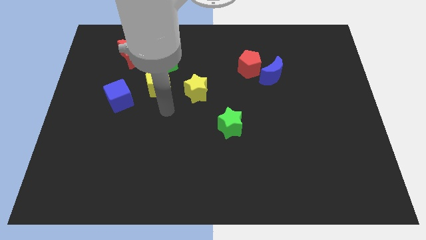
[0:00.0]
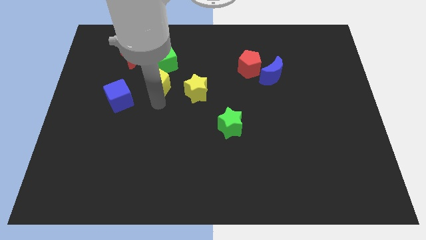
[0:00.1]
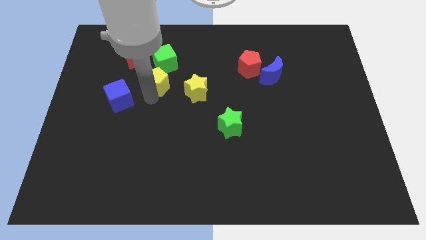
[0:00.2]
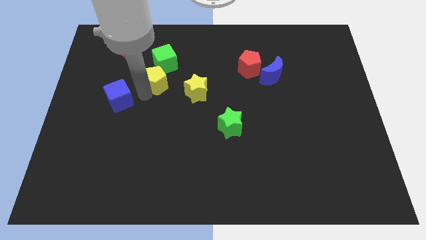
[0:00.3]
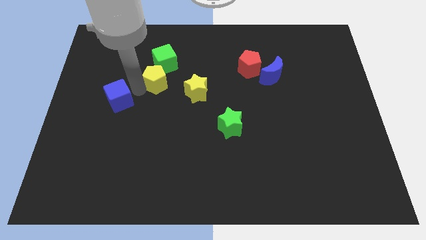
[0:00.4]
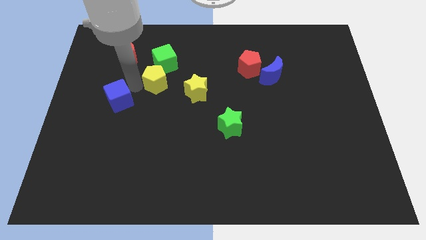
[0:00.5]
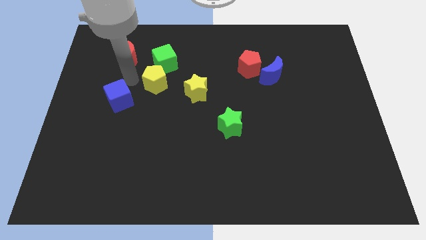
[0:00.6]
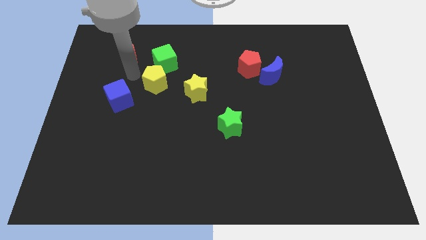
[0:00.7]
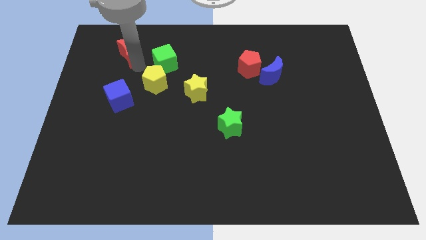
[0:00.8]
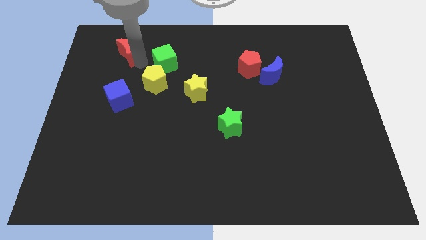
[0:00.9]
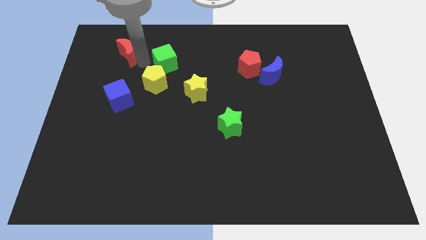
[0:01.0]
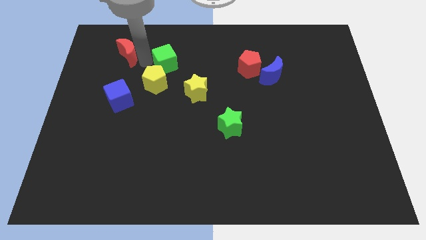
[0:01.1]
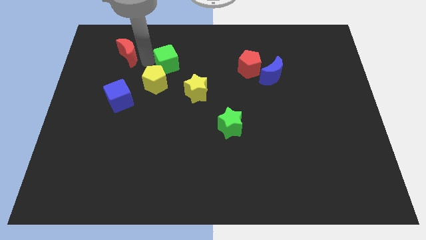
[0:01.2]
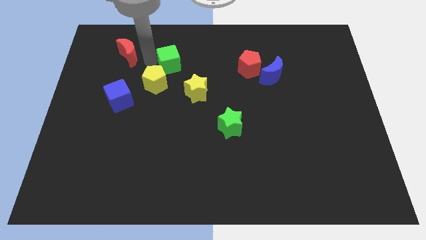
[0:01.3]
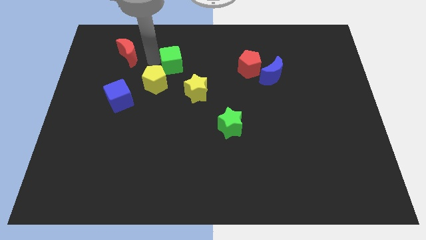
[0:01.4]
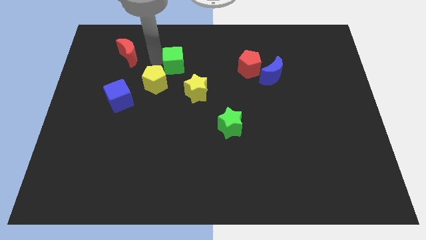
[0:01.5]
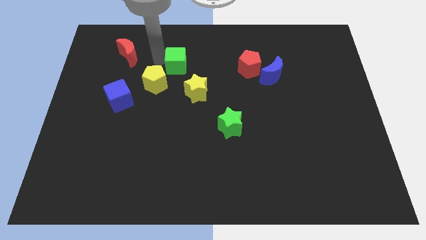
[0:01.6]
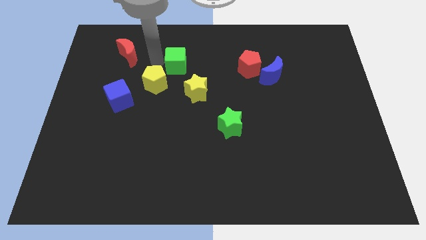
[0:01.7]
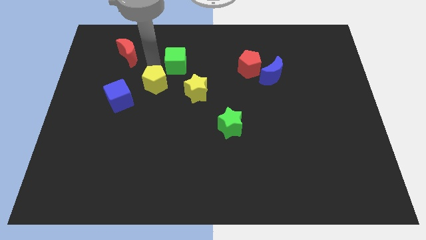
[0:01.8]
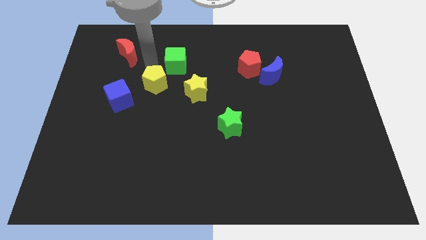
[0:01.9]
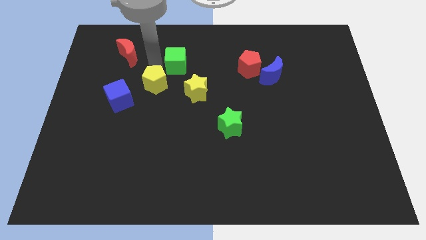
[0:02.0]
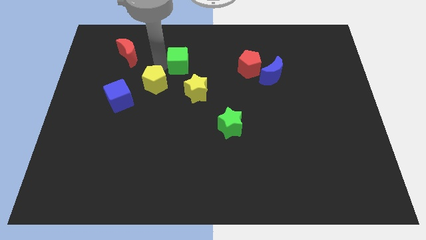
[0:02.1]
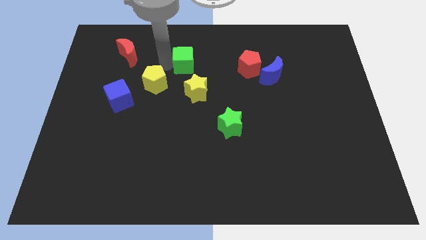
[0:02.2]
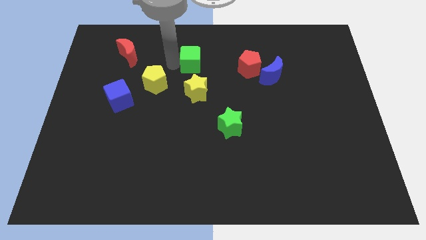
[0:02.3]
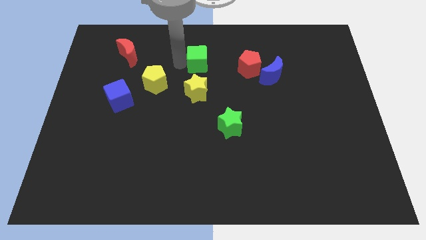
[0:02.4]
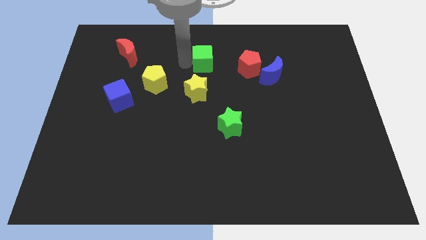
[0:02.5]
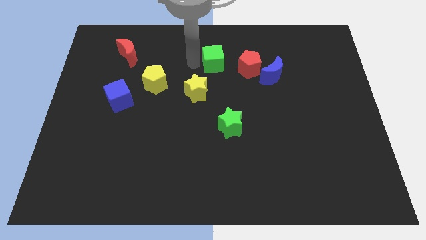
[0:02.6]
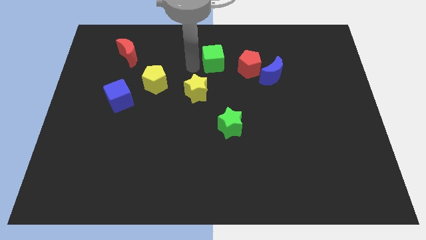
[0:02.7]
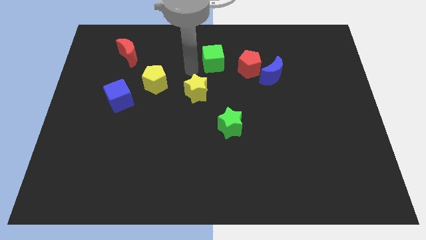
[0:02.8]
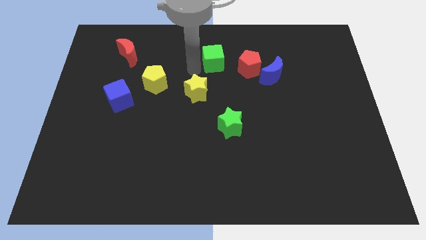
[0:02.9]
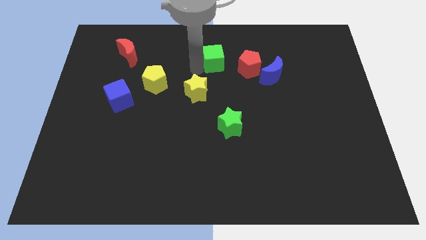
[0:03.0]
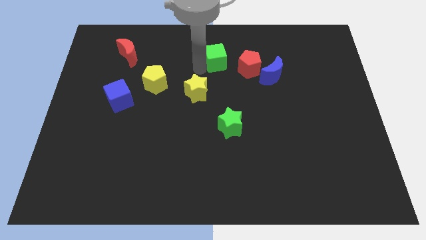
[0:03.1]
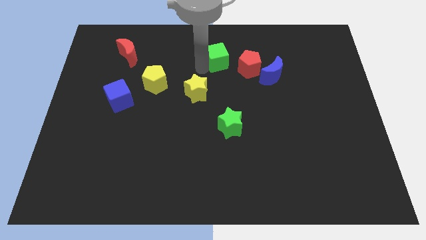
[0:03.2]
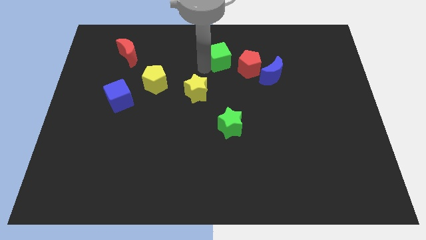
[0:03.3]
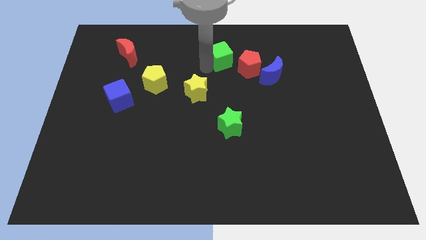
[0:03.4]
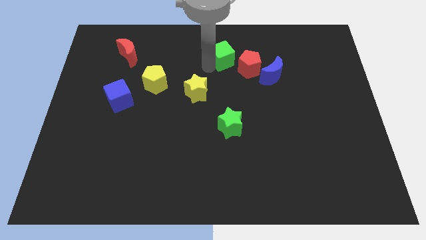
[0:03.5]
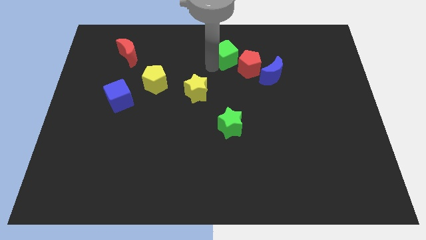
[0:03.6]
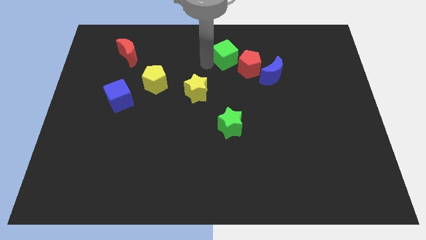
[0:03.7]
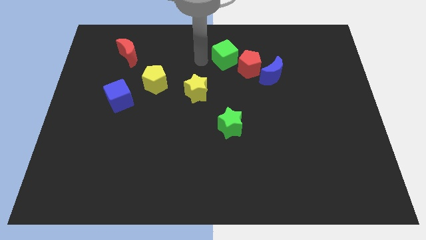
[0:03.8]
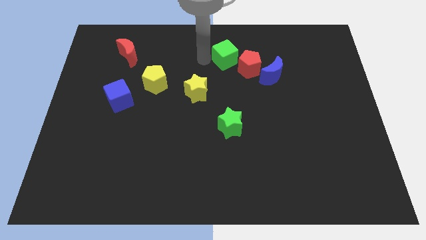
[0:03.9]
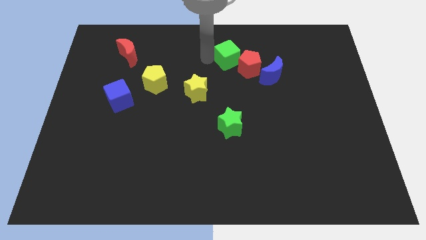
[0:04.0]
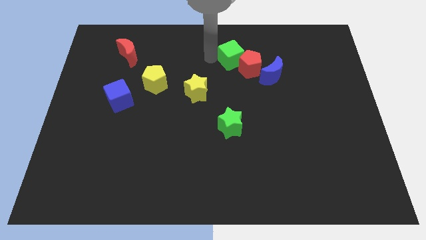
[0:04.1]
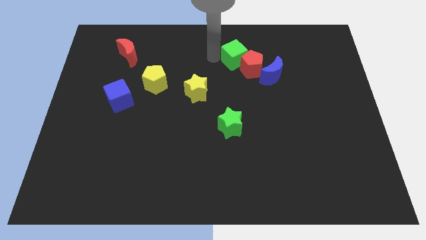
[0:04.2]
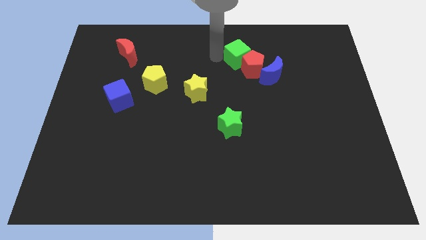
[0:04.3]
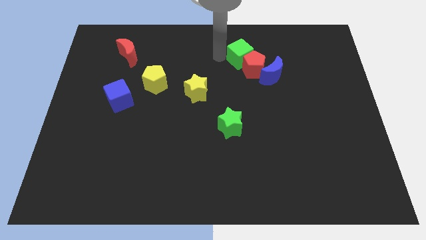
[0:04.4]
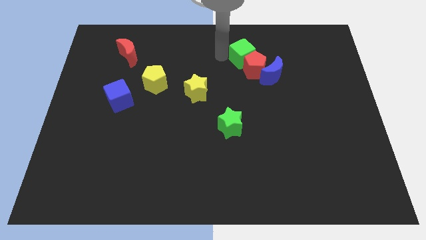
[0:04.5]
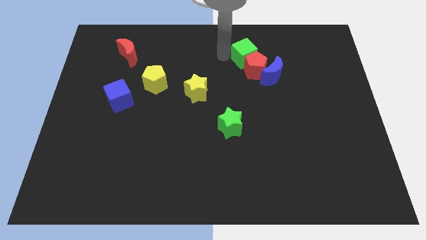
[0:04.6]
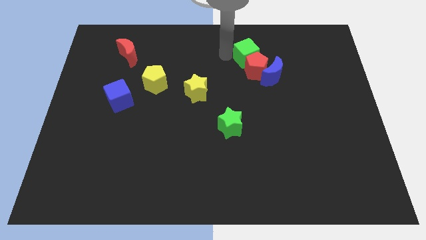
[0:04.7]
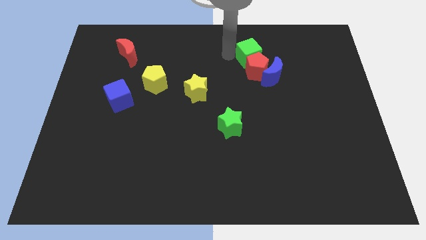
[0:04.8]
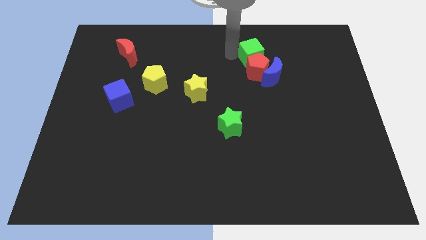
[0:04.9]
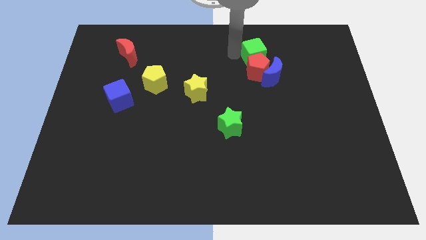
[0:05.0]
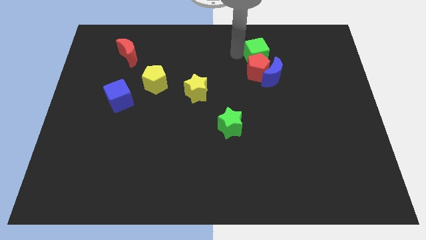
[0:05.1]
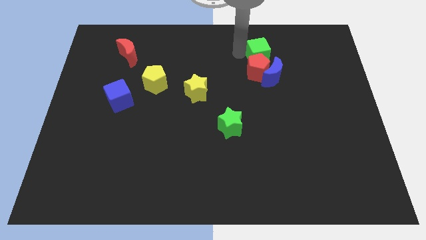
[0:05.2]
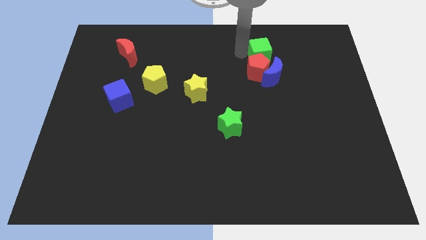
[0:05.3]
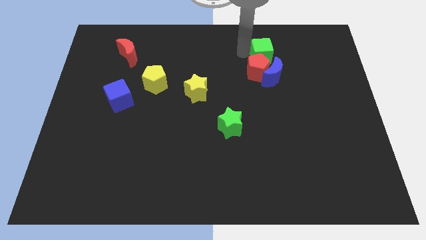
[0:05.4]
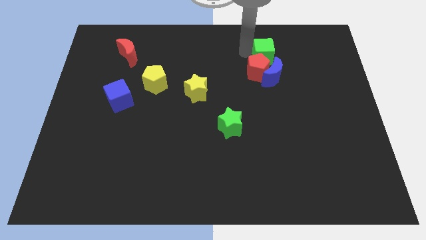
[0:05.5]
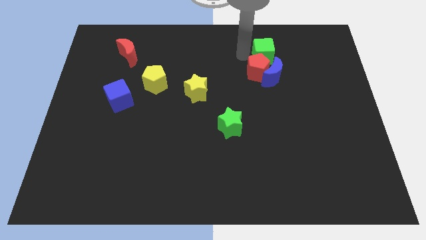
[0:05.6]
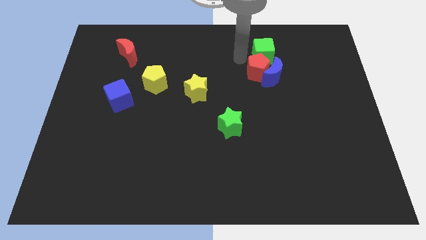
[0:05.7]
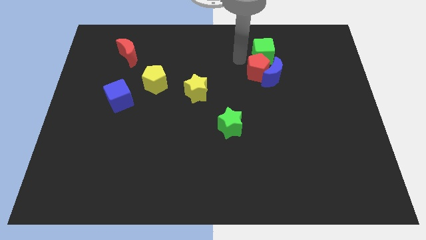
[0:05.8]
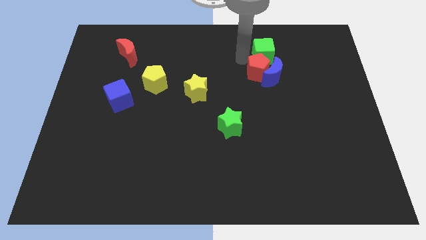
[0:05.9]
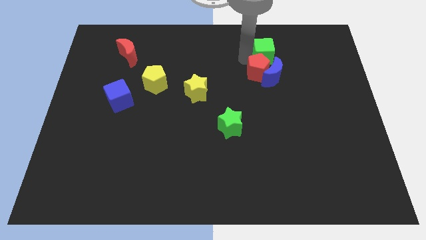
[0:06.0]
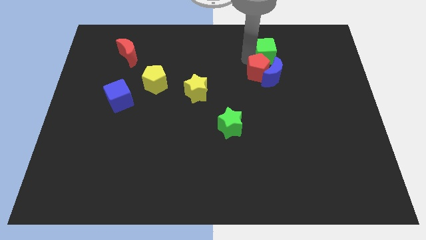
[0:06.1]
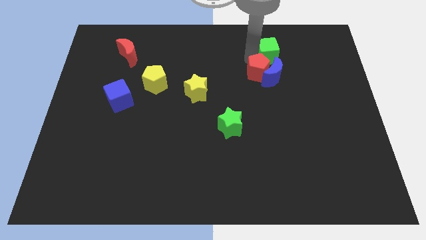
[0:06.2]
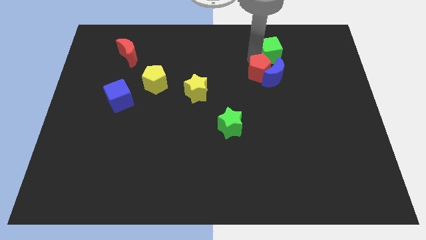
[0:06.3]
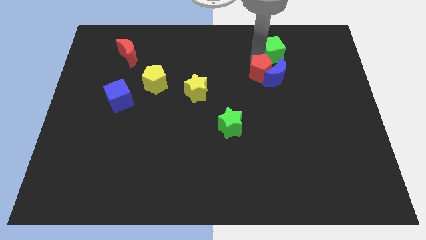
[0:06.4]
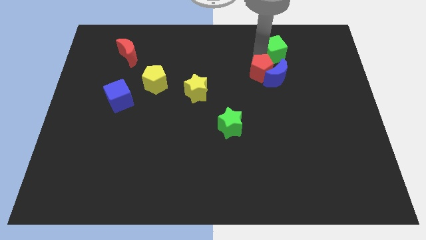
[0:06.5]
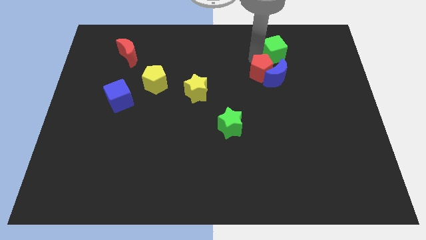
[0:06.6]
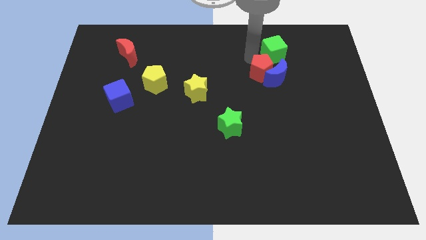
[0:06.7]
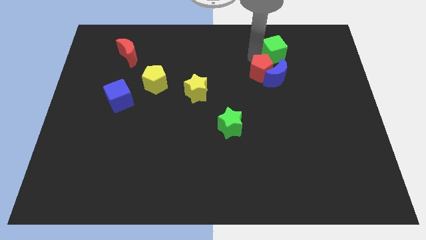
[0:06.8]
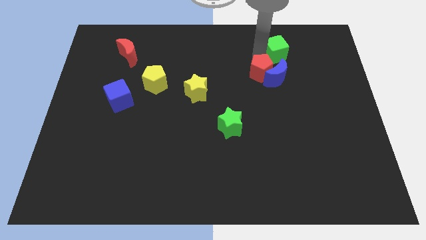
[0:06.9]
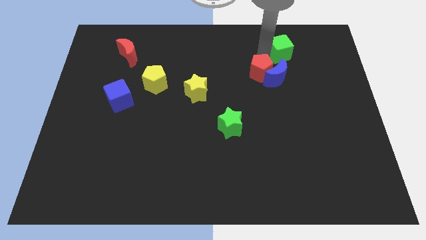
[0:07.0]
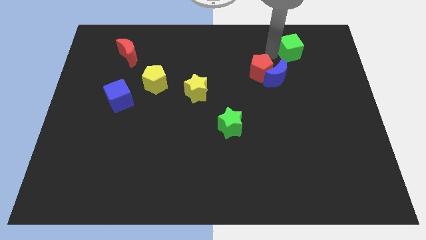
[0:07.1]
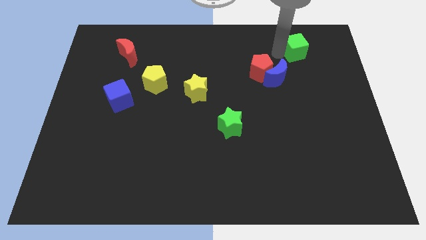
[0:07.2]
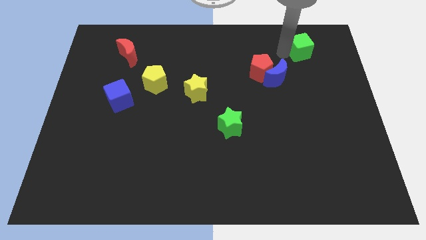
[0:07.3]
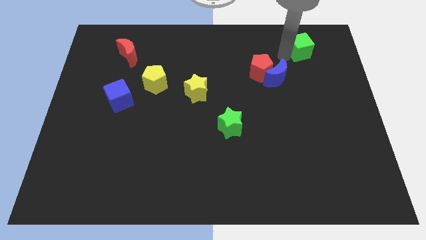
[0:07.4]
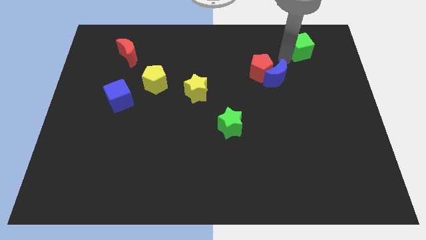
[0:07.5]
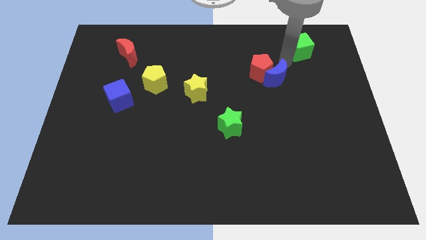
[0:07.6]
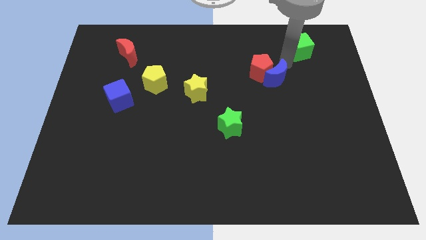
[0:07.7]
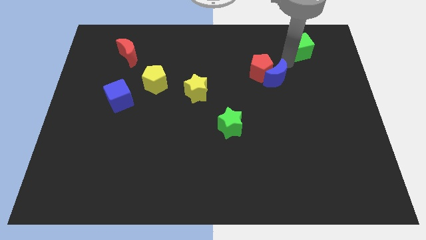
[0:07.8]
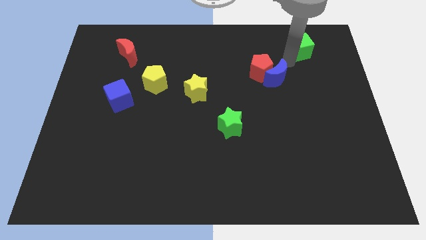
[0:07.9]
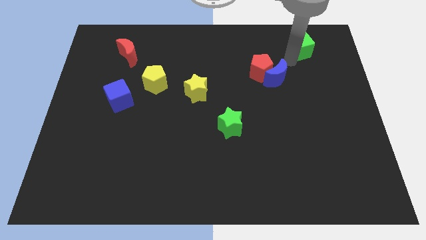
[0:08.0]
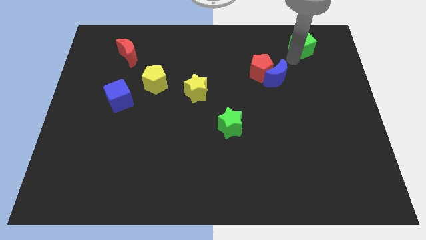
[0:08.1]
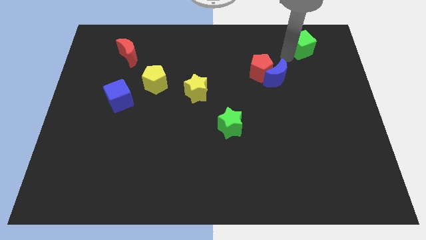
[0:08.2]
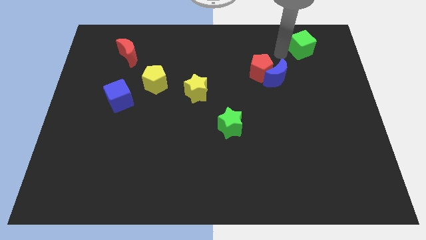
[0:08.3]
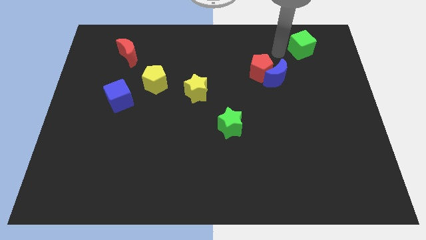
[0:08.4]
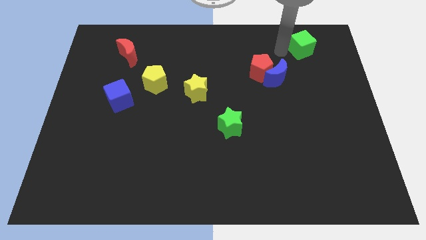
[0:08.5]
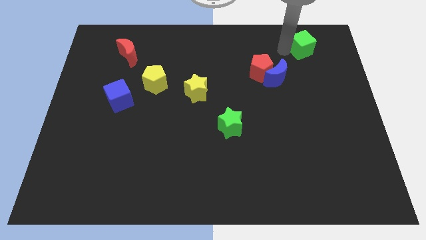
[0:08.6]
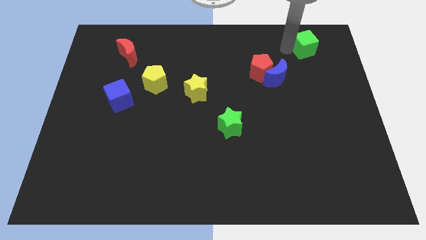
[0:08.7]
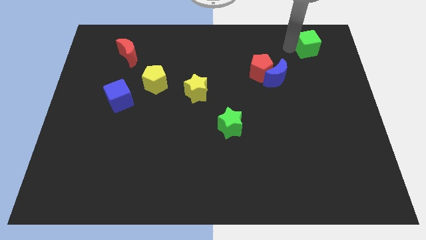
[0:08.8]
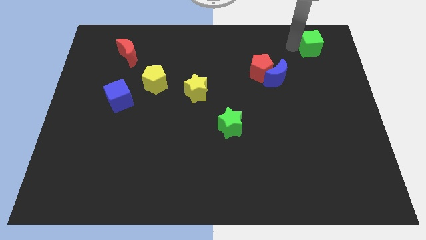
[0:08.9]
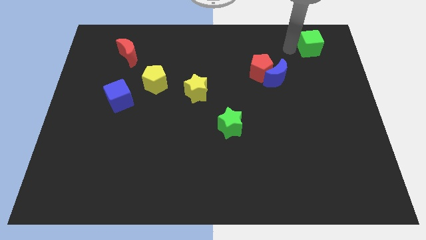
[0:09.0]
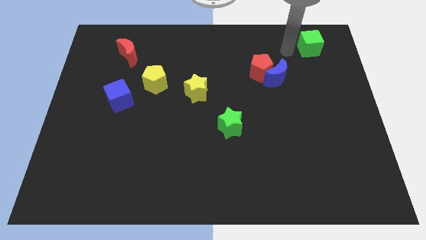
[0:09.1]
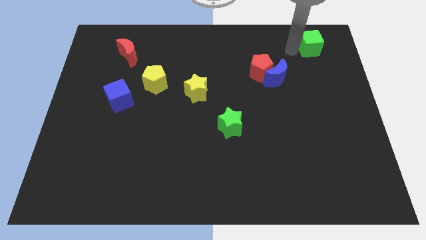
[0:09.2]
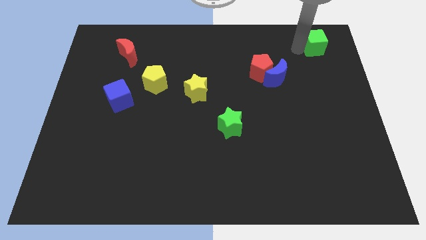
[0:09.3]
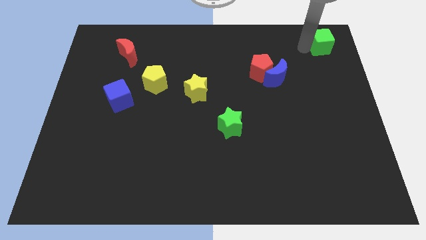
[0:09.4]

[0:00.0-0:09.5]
push the green cube to the top right
